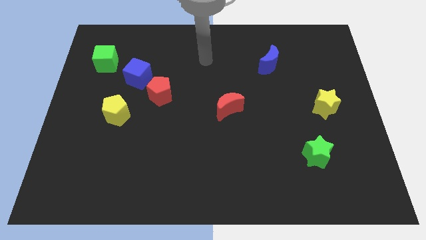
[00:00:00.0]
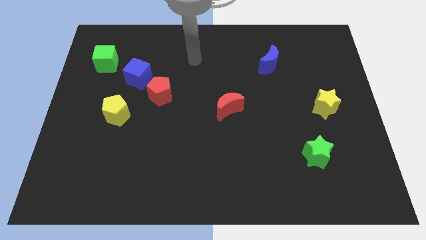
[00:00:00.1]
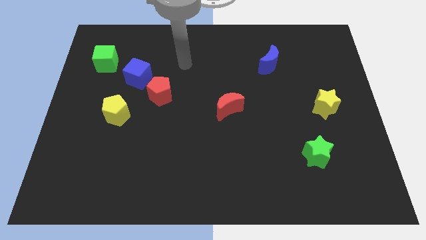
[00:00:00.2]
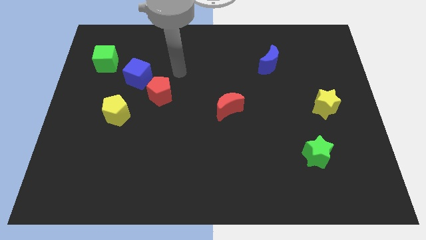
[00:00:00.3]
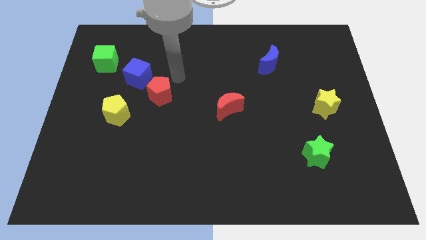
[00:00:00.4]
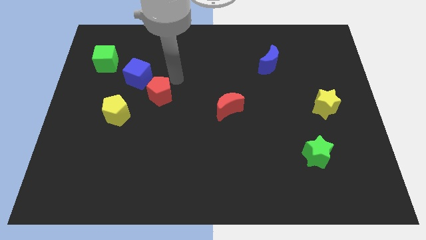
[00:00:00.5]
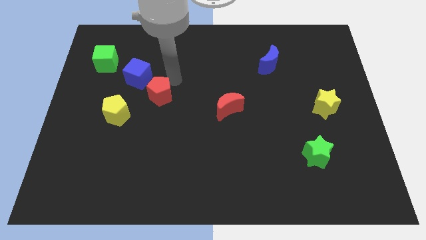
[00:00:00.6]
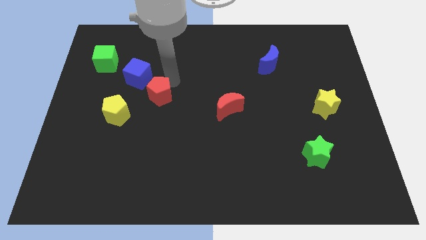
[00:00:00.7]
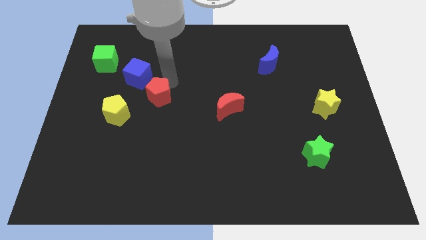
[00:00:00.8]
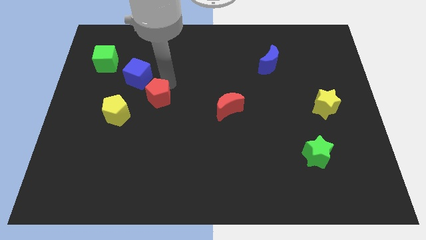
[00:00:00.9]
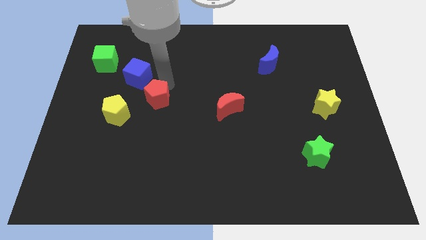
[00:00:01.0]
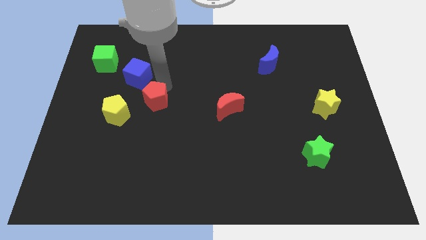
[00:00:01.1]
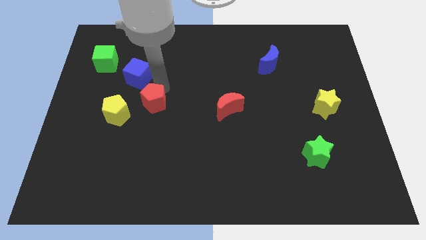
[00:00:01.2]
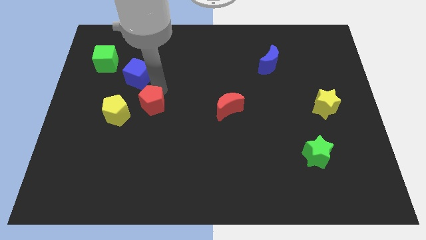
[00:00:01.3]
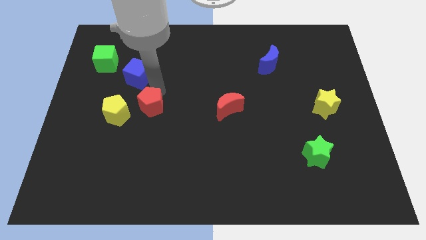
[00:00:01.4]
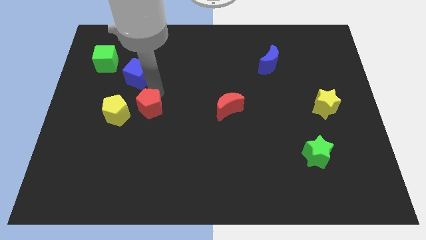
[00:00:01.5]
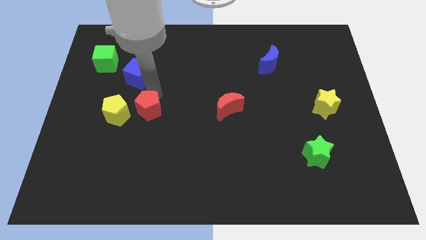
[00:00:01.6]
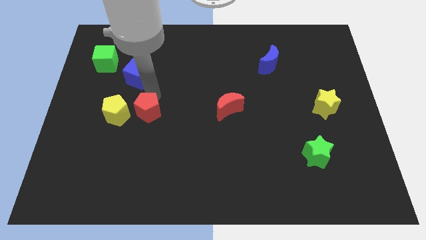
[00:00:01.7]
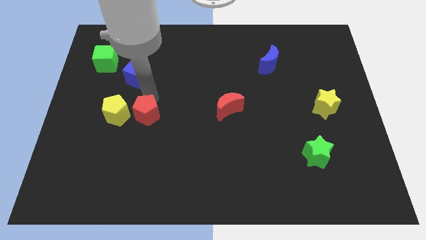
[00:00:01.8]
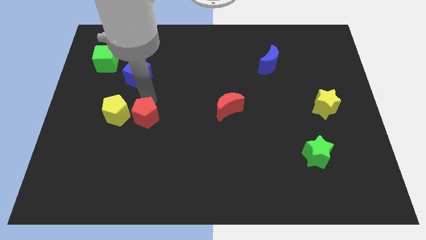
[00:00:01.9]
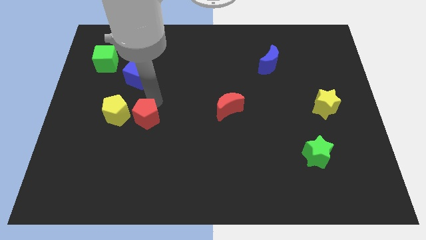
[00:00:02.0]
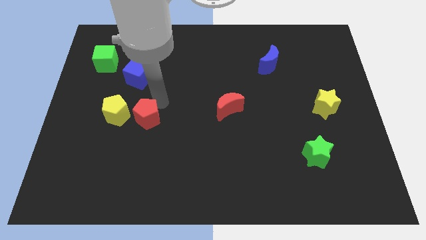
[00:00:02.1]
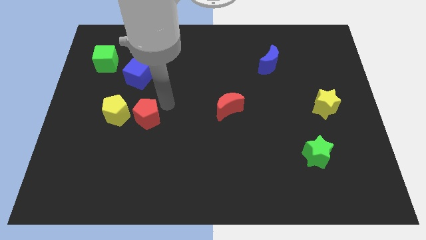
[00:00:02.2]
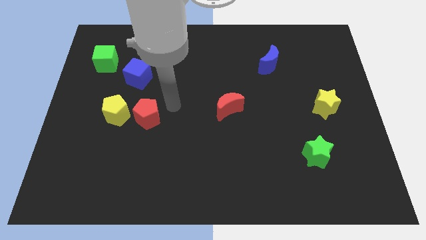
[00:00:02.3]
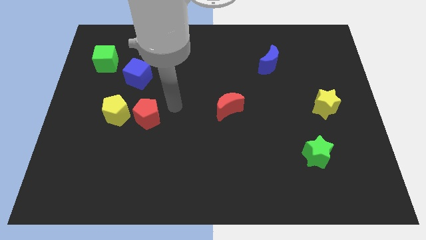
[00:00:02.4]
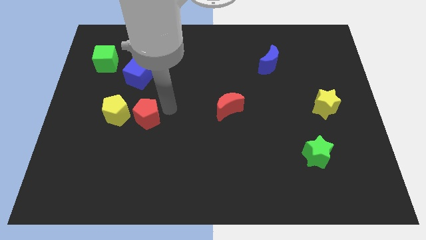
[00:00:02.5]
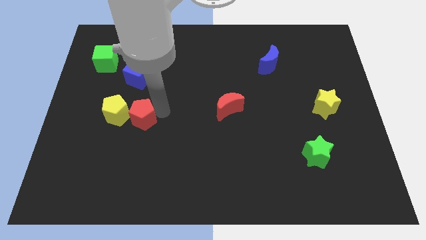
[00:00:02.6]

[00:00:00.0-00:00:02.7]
slightly slide the red pentagon downwards and then left

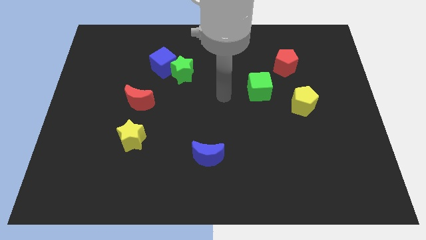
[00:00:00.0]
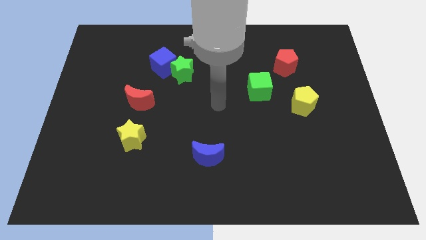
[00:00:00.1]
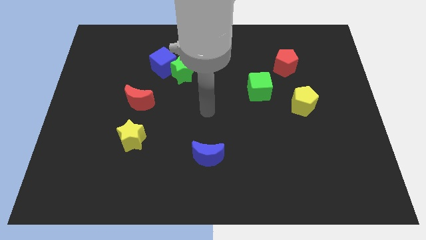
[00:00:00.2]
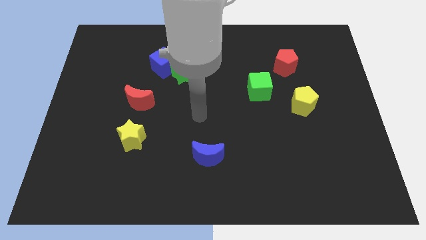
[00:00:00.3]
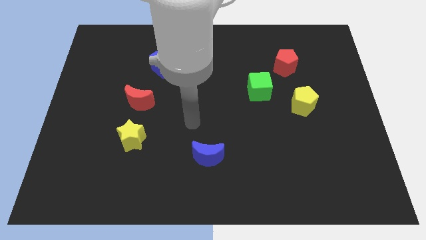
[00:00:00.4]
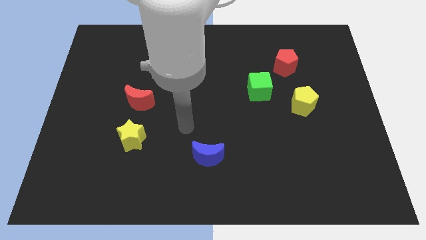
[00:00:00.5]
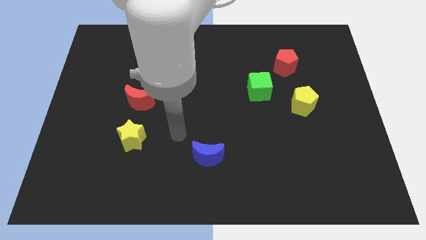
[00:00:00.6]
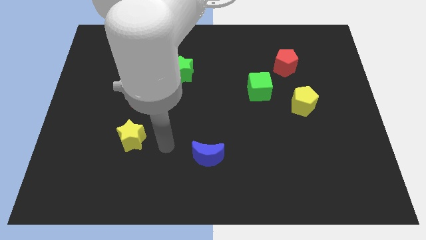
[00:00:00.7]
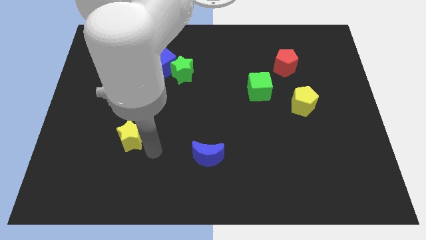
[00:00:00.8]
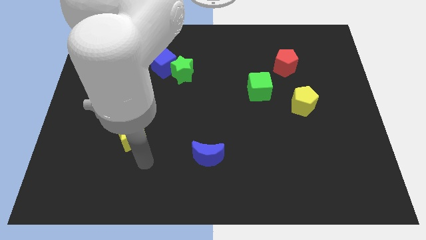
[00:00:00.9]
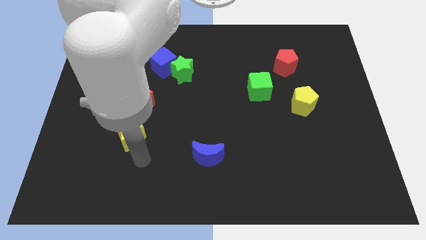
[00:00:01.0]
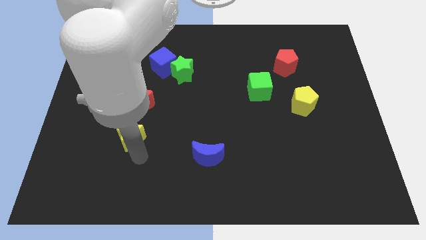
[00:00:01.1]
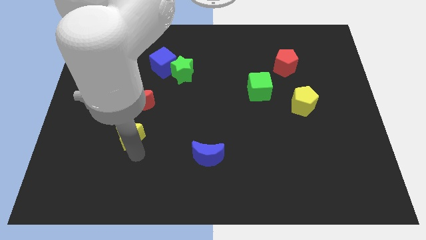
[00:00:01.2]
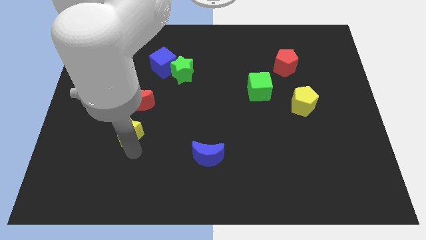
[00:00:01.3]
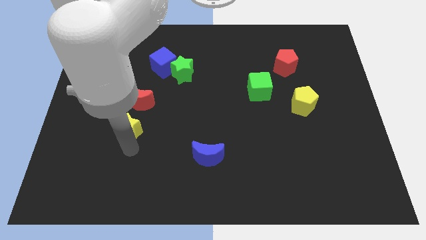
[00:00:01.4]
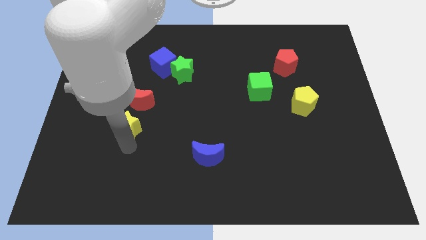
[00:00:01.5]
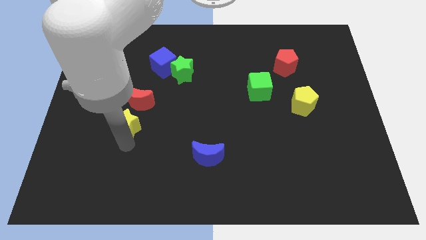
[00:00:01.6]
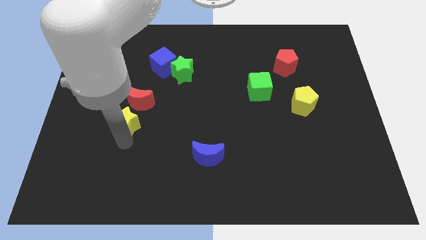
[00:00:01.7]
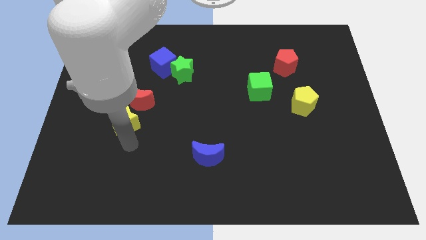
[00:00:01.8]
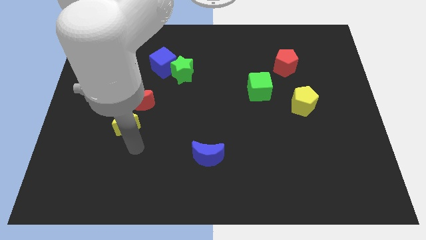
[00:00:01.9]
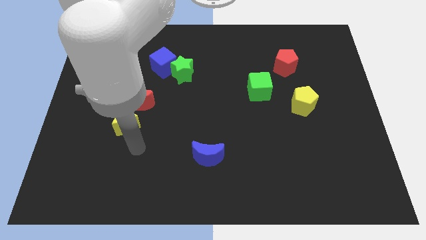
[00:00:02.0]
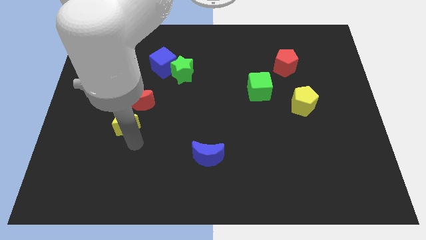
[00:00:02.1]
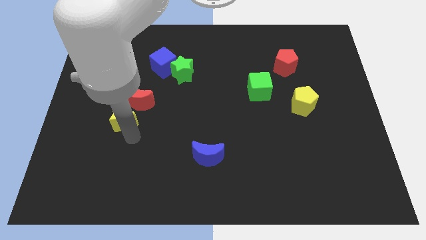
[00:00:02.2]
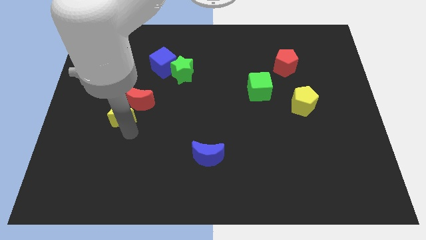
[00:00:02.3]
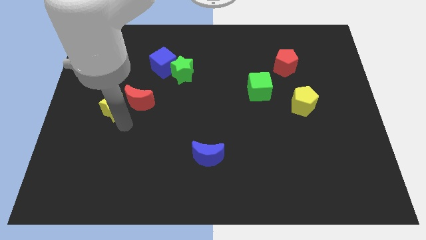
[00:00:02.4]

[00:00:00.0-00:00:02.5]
slide the yellow star up a bit

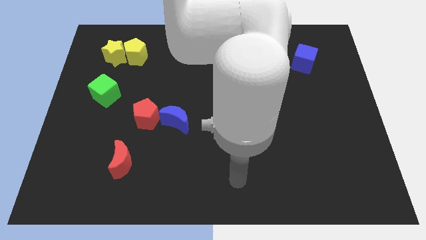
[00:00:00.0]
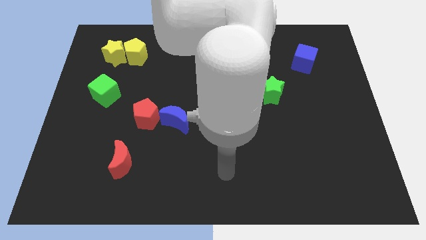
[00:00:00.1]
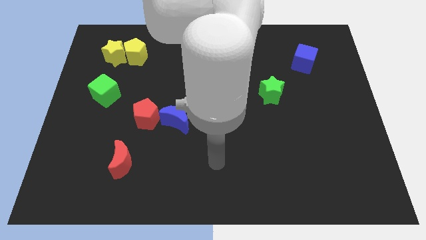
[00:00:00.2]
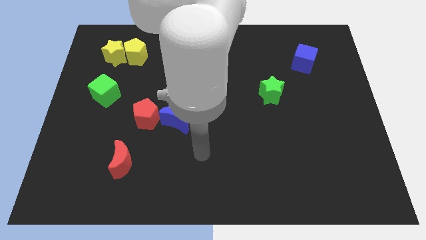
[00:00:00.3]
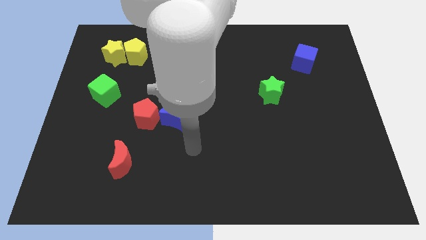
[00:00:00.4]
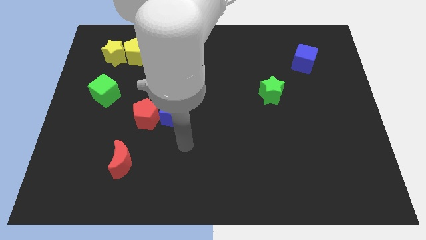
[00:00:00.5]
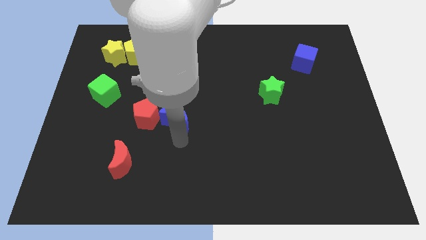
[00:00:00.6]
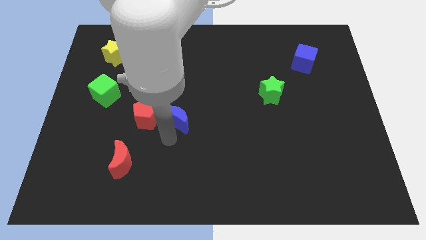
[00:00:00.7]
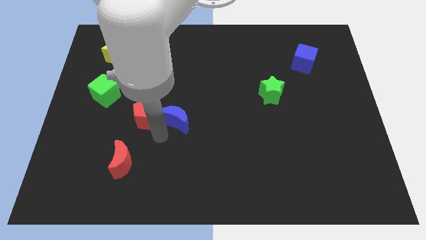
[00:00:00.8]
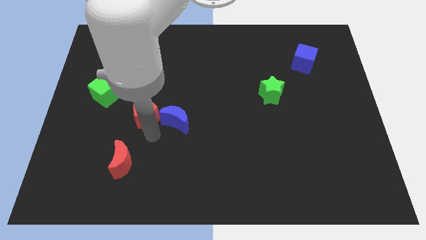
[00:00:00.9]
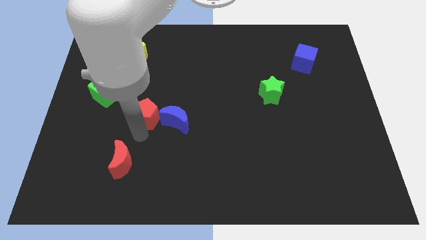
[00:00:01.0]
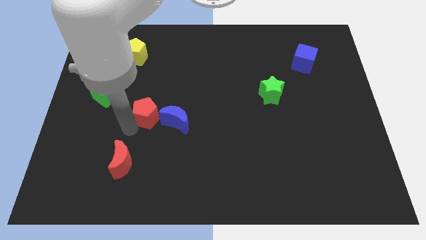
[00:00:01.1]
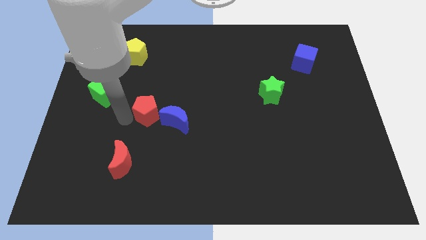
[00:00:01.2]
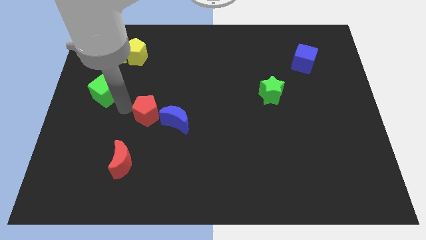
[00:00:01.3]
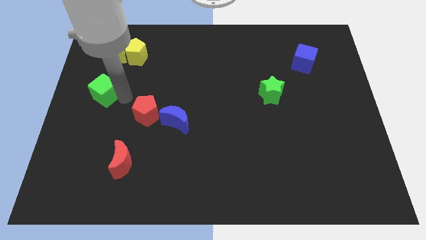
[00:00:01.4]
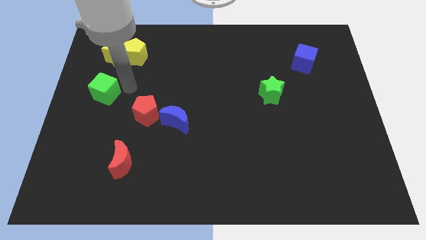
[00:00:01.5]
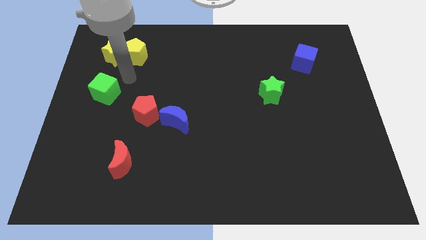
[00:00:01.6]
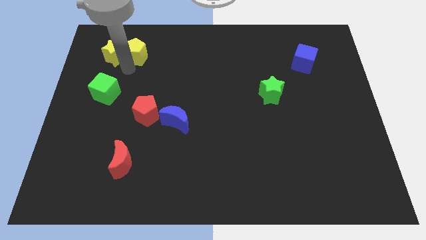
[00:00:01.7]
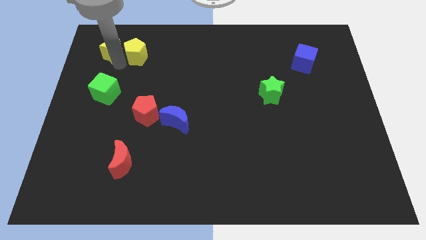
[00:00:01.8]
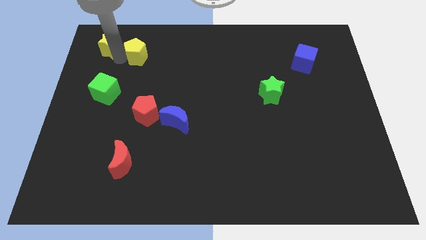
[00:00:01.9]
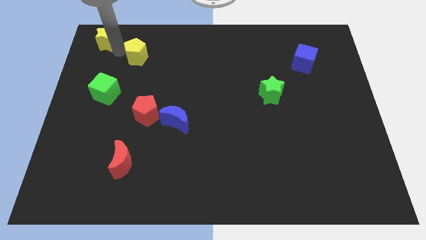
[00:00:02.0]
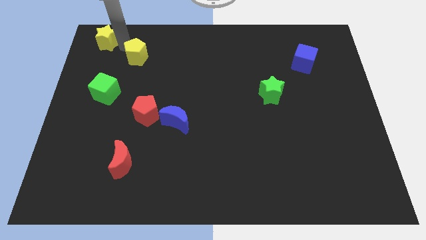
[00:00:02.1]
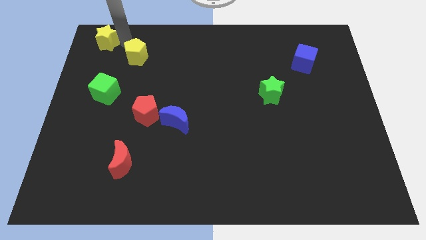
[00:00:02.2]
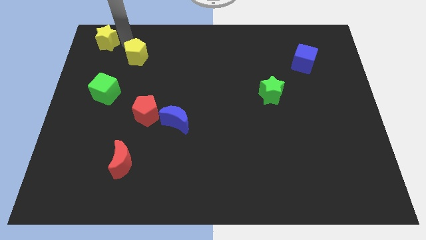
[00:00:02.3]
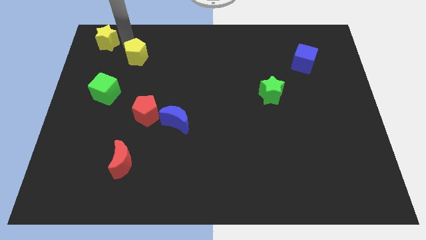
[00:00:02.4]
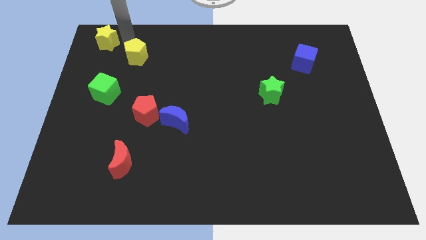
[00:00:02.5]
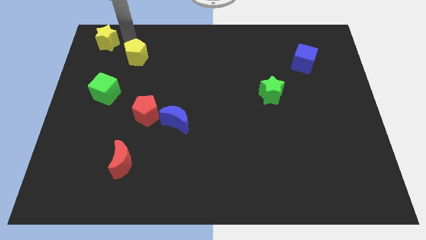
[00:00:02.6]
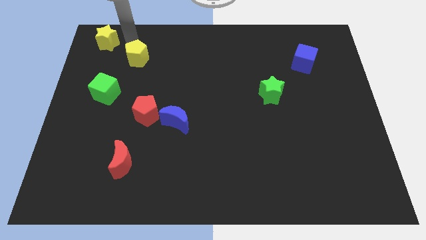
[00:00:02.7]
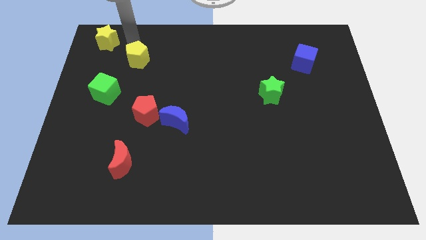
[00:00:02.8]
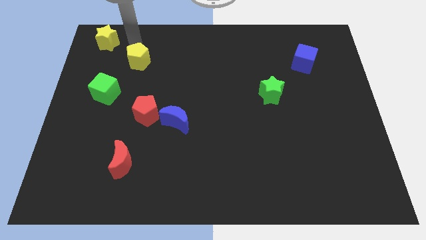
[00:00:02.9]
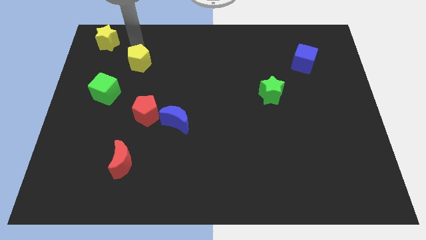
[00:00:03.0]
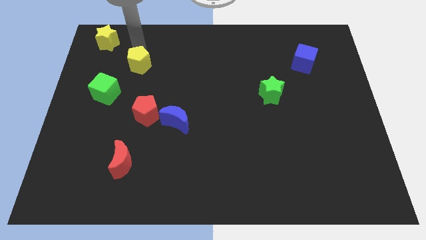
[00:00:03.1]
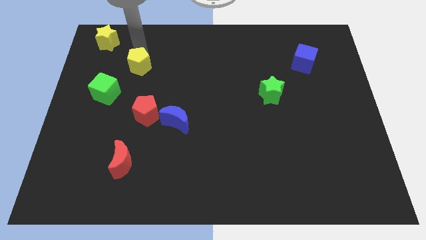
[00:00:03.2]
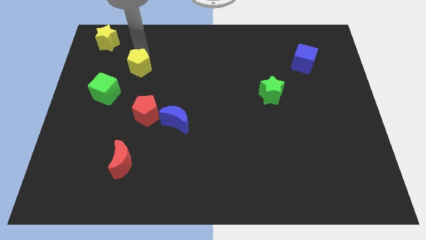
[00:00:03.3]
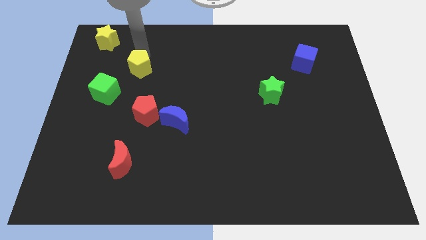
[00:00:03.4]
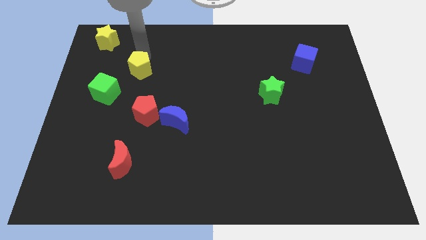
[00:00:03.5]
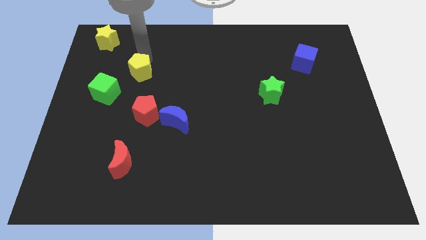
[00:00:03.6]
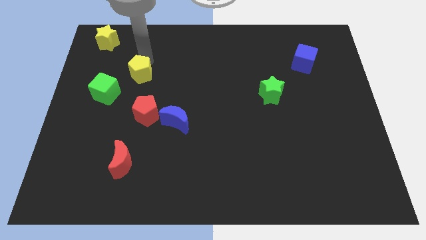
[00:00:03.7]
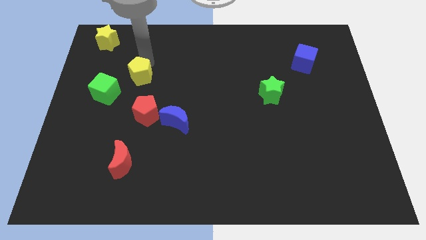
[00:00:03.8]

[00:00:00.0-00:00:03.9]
move the yellow pentagon a bit down
